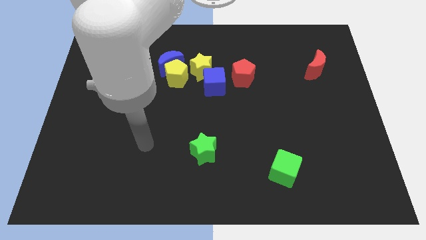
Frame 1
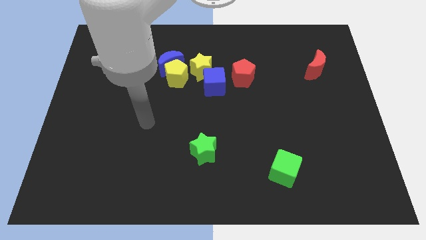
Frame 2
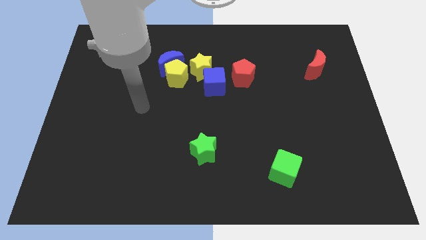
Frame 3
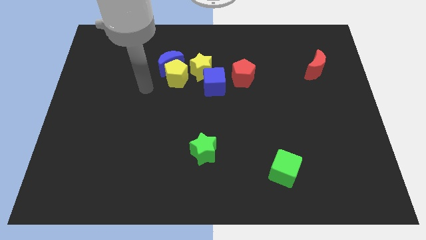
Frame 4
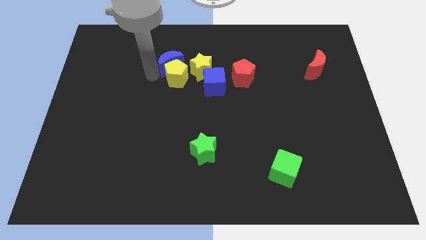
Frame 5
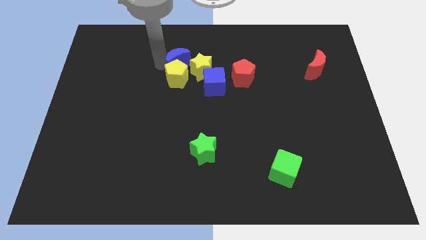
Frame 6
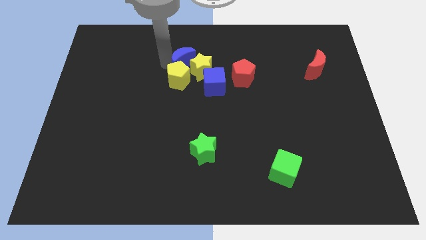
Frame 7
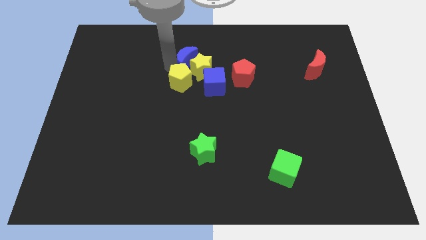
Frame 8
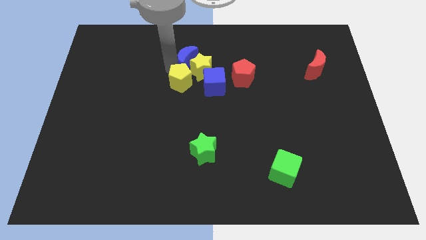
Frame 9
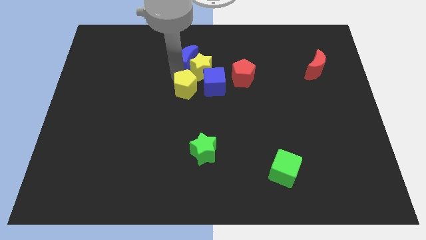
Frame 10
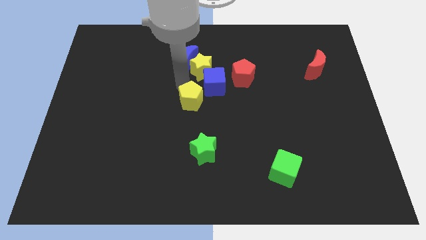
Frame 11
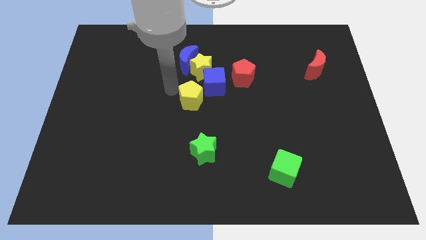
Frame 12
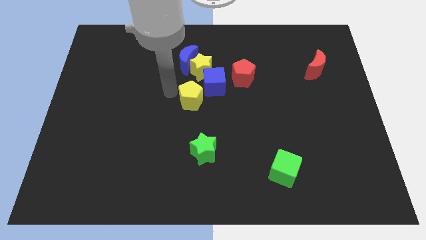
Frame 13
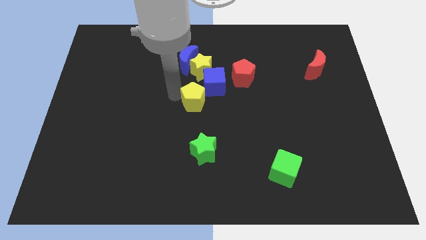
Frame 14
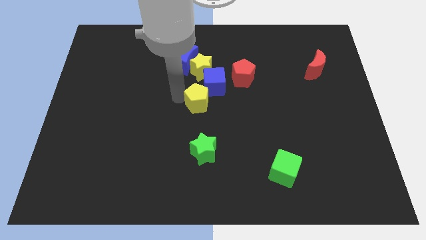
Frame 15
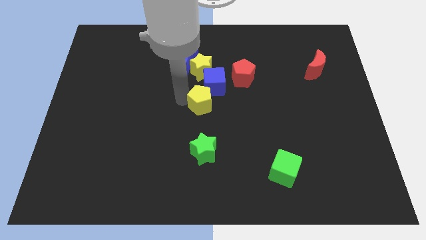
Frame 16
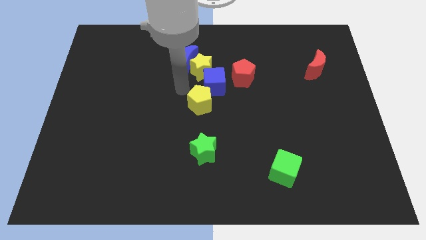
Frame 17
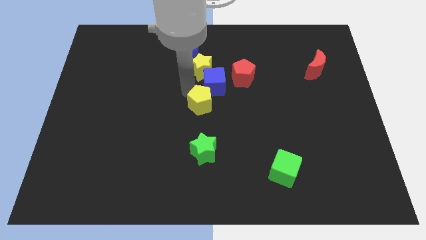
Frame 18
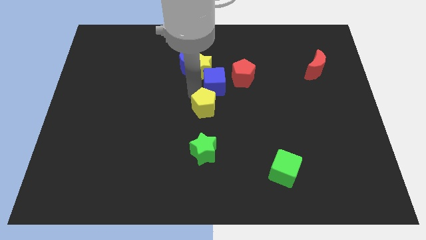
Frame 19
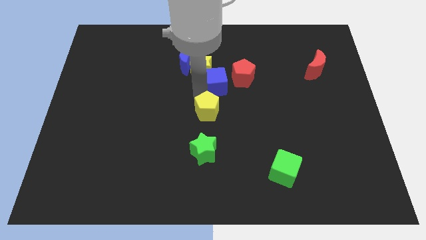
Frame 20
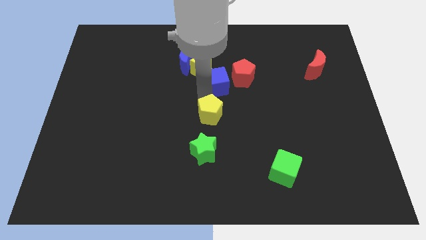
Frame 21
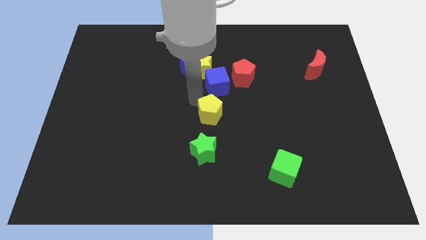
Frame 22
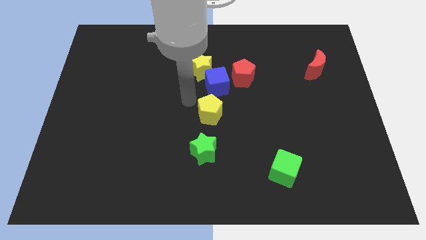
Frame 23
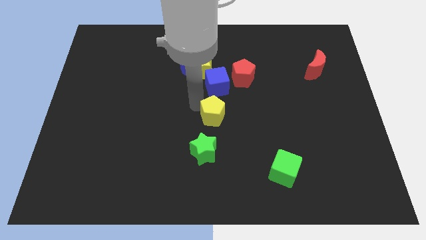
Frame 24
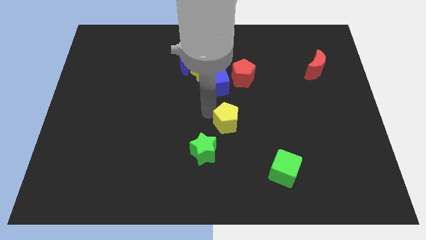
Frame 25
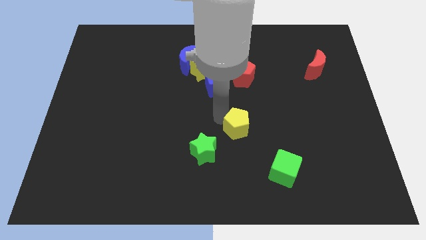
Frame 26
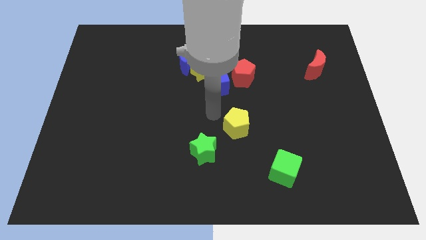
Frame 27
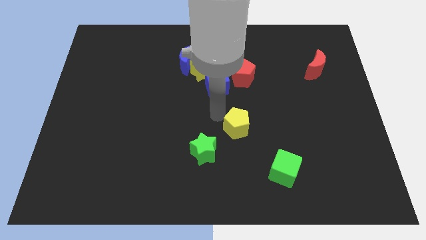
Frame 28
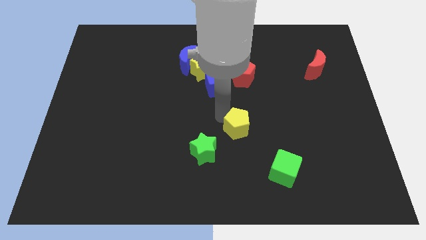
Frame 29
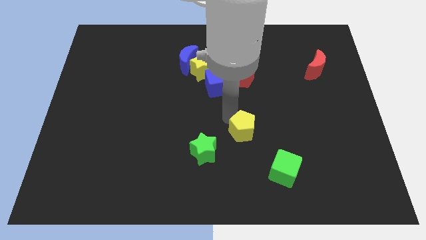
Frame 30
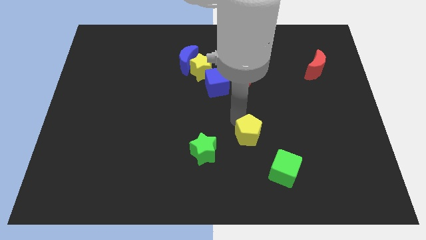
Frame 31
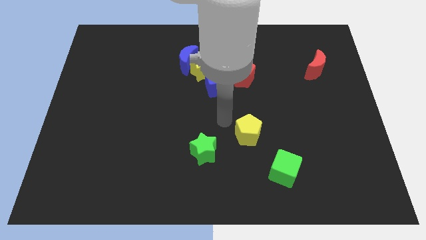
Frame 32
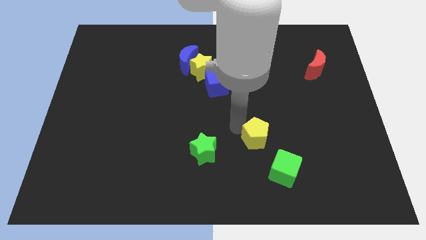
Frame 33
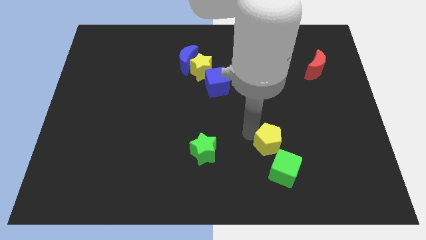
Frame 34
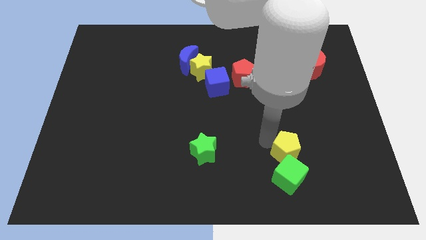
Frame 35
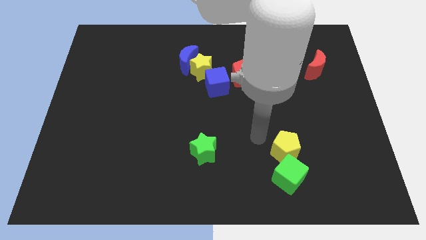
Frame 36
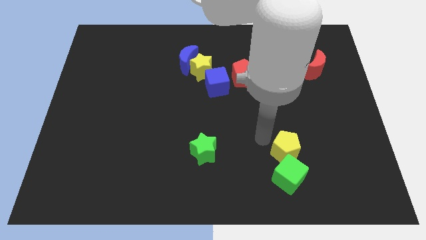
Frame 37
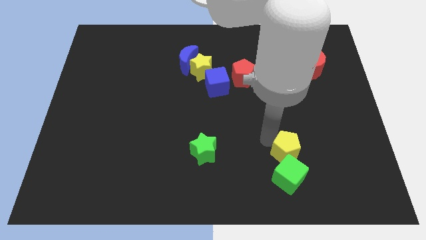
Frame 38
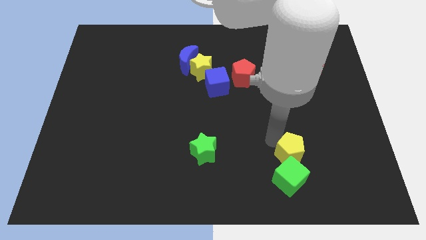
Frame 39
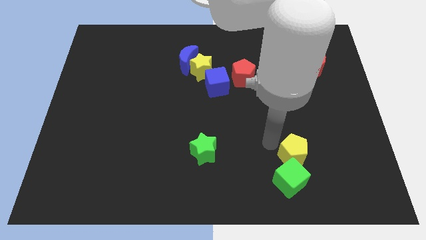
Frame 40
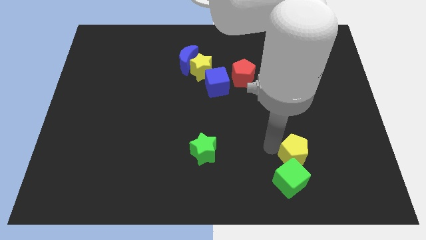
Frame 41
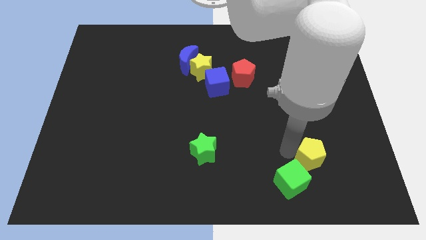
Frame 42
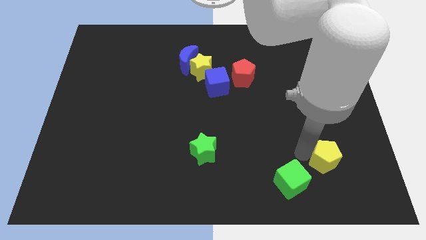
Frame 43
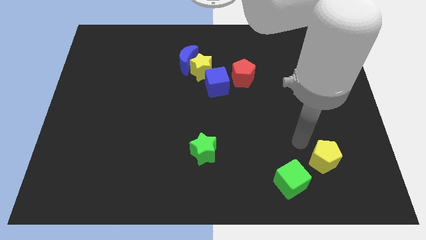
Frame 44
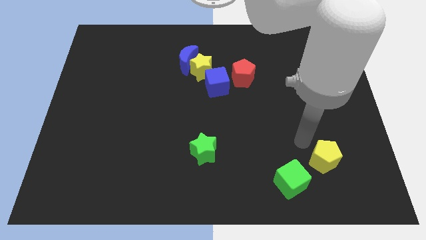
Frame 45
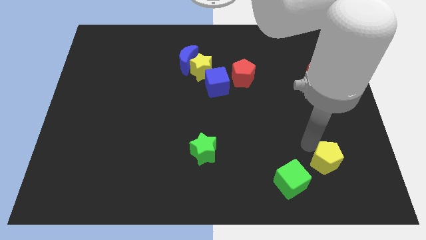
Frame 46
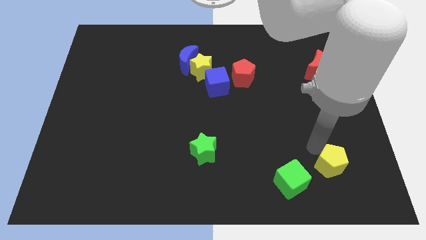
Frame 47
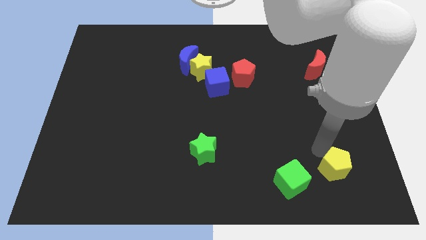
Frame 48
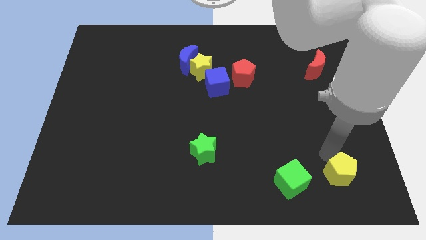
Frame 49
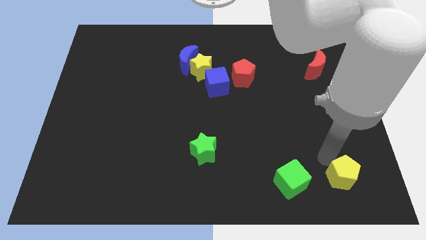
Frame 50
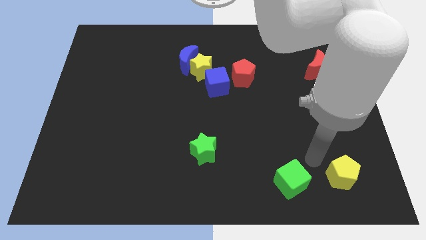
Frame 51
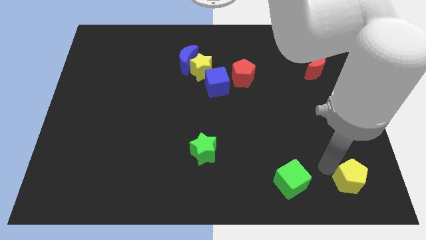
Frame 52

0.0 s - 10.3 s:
push the yellow pentagon to the bottom right corner

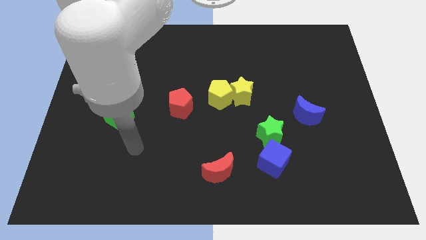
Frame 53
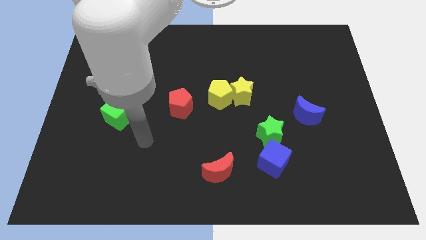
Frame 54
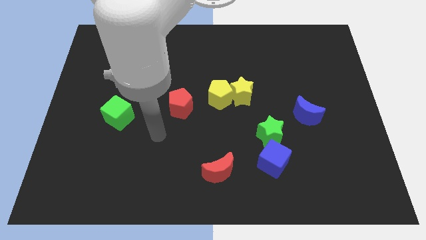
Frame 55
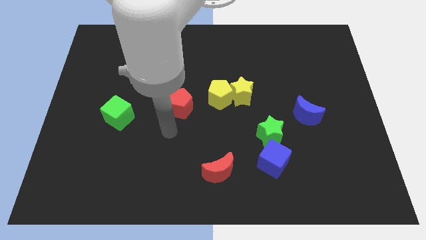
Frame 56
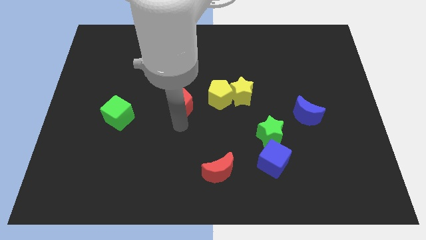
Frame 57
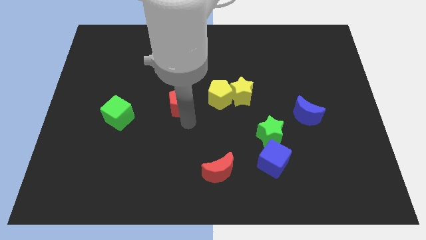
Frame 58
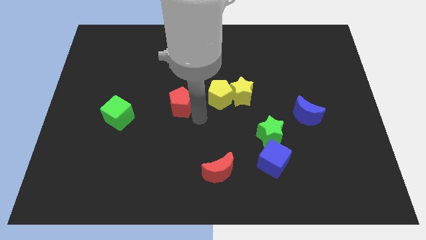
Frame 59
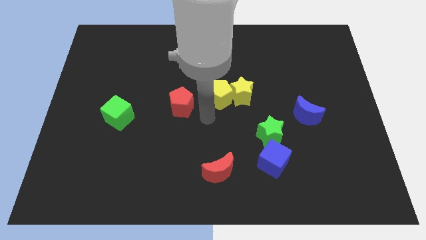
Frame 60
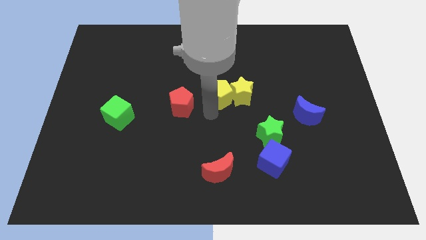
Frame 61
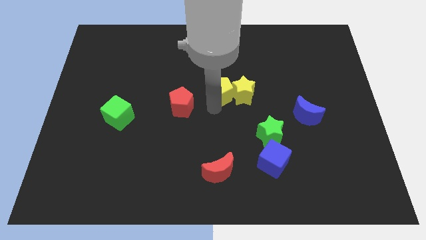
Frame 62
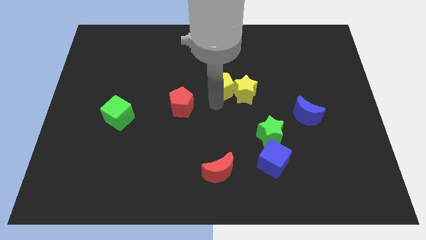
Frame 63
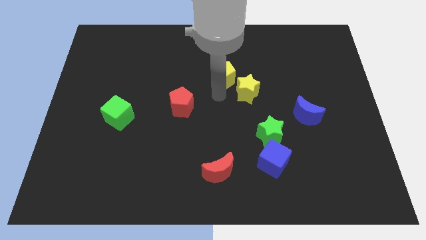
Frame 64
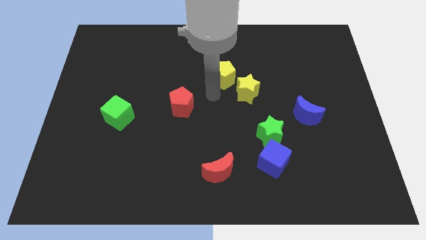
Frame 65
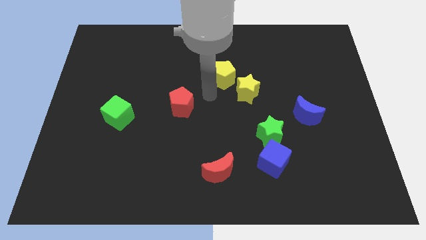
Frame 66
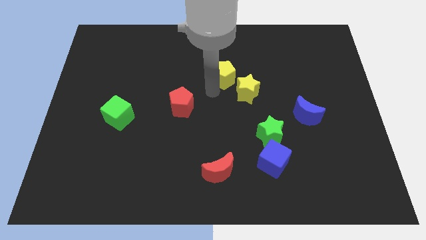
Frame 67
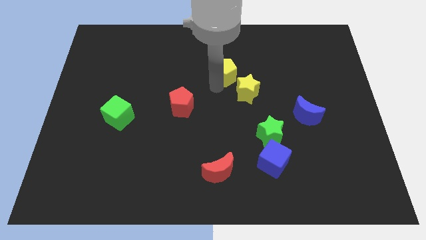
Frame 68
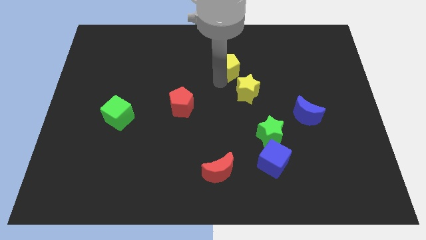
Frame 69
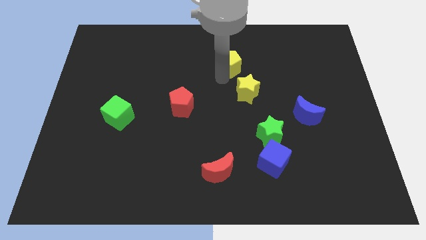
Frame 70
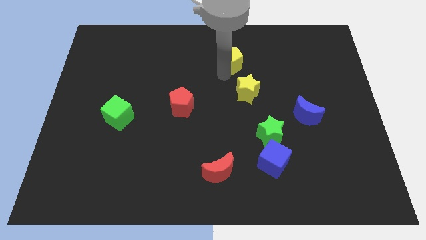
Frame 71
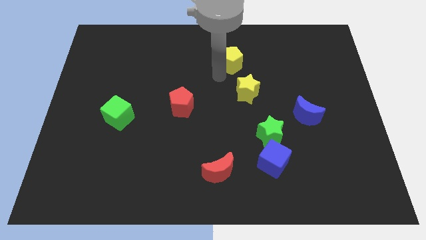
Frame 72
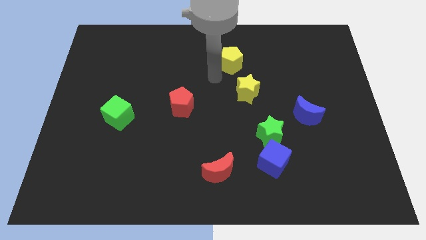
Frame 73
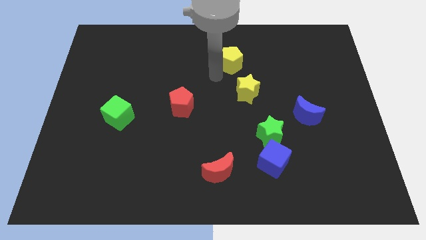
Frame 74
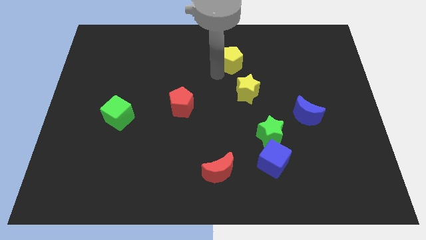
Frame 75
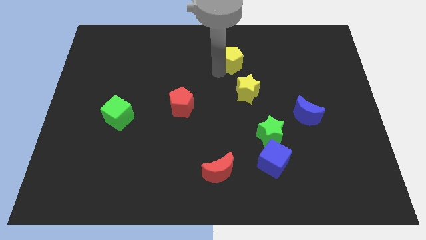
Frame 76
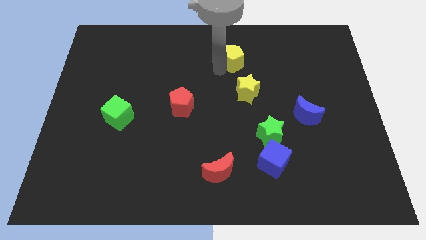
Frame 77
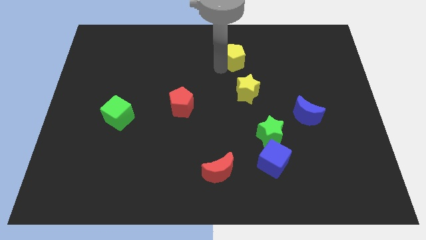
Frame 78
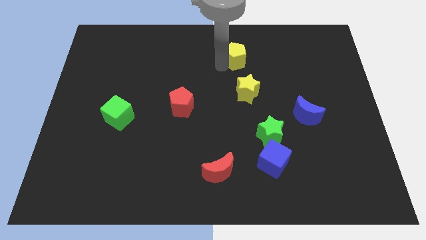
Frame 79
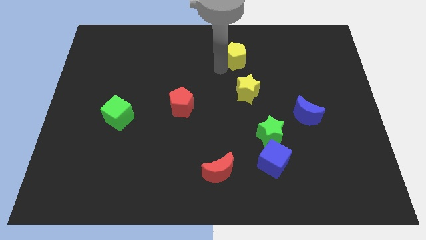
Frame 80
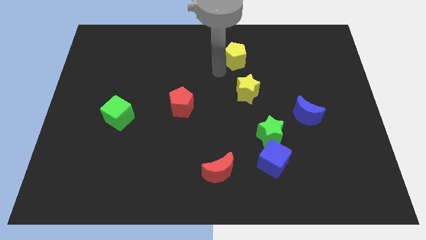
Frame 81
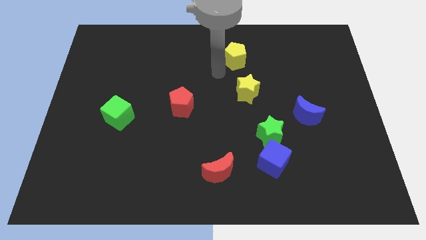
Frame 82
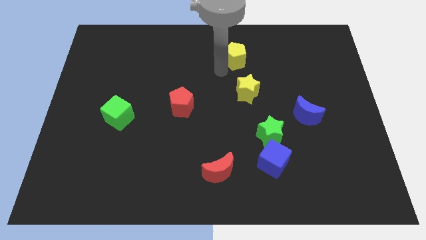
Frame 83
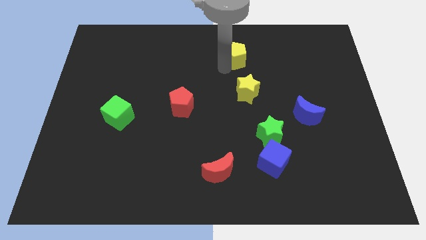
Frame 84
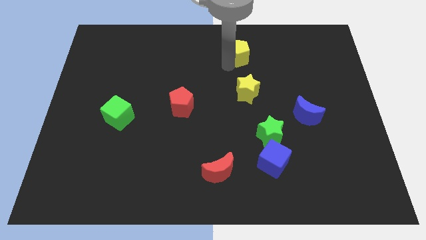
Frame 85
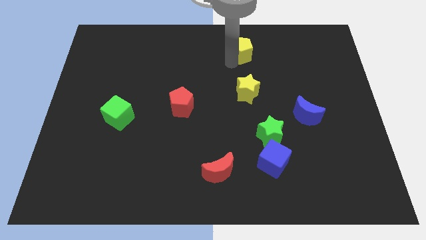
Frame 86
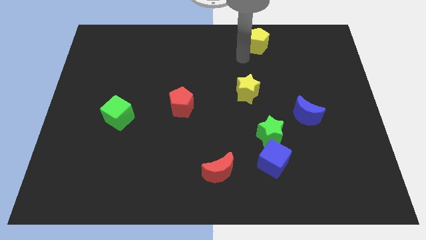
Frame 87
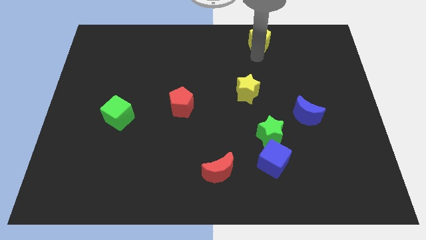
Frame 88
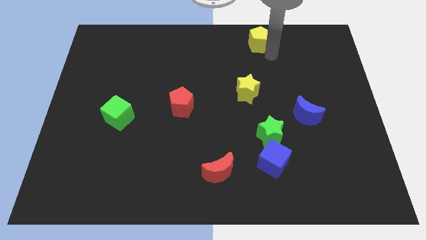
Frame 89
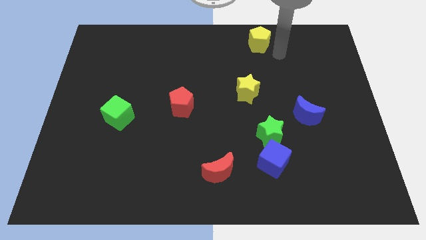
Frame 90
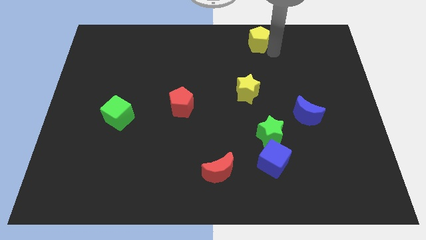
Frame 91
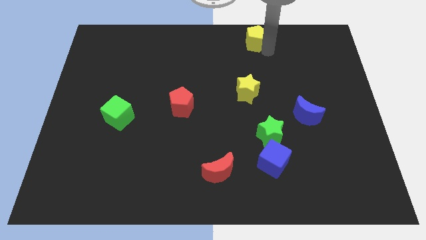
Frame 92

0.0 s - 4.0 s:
slide the yellow pentagon to the top
